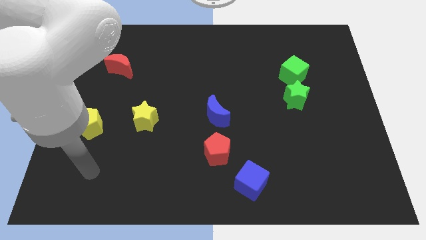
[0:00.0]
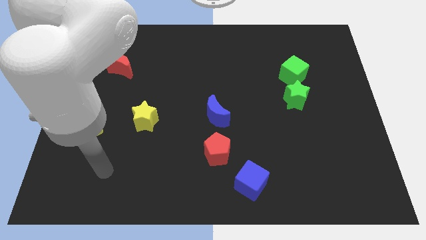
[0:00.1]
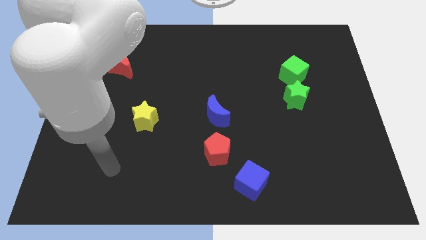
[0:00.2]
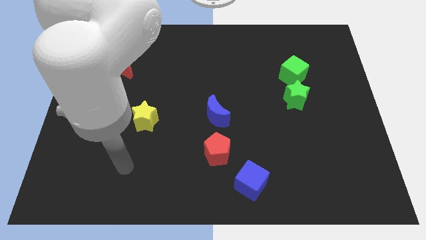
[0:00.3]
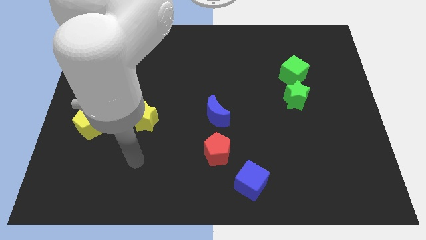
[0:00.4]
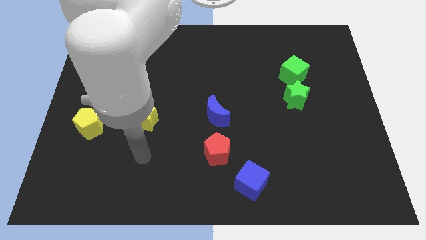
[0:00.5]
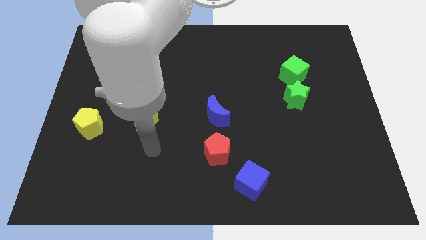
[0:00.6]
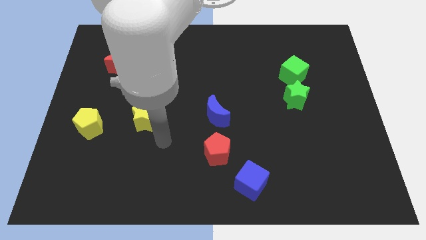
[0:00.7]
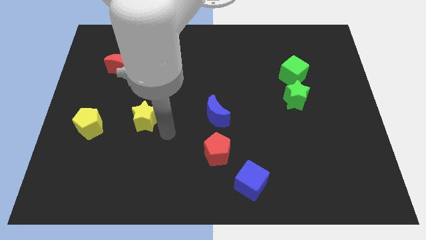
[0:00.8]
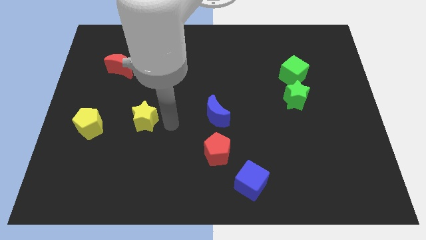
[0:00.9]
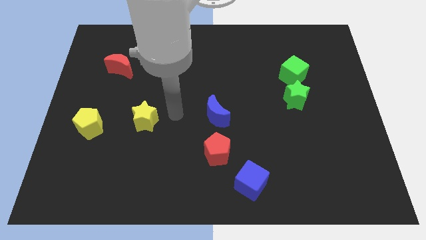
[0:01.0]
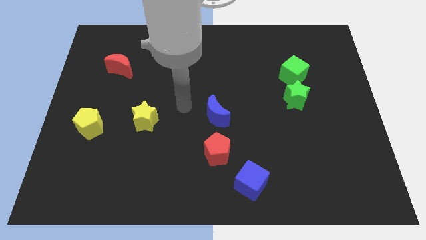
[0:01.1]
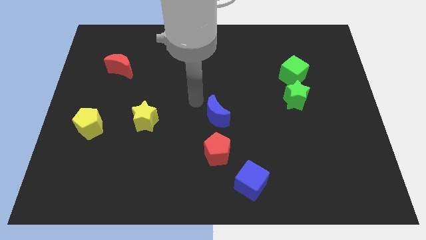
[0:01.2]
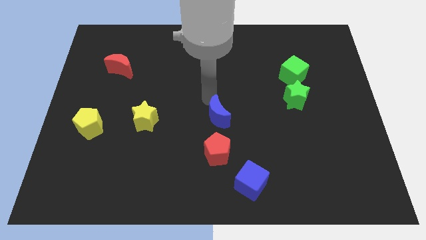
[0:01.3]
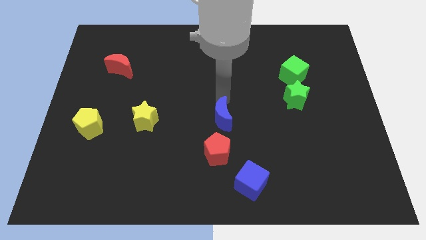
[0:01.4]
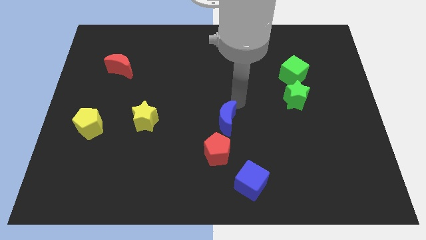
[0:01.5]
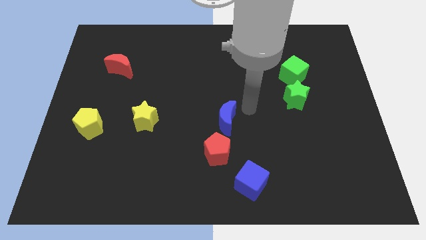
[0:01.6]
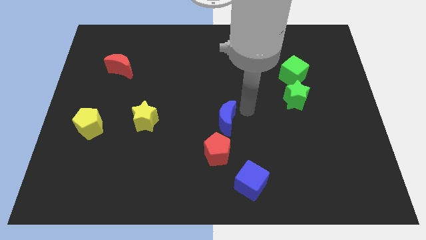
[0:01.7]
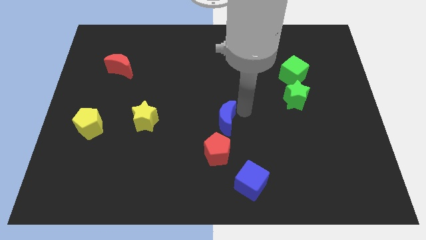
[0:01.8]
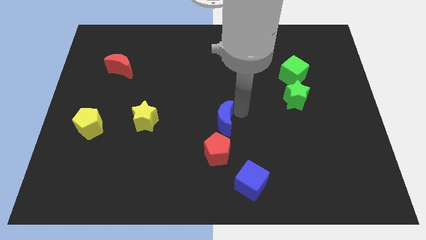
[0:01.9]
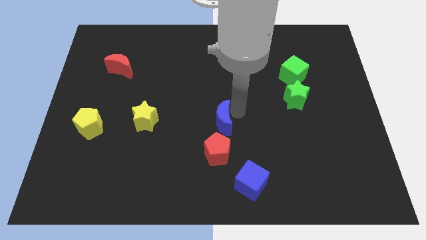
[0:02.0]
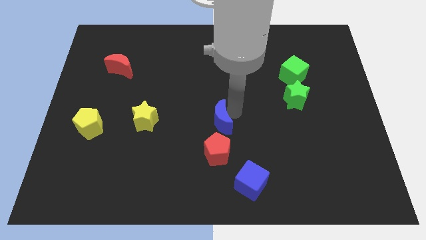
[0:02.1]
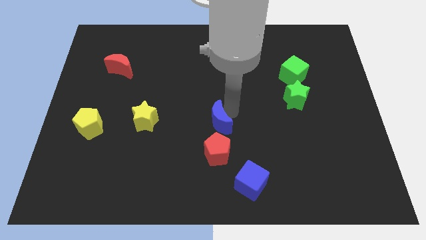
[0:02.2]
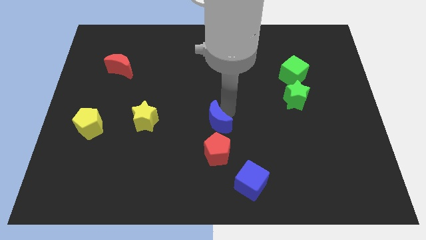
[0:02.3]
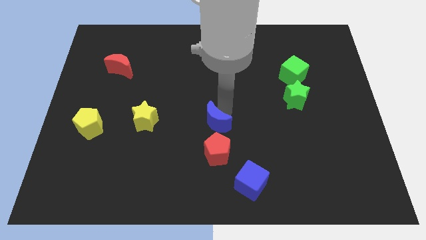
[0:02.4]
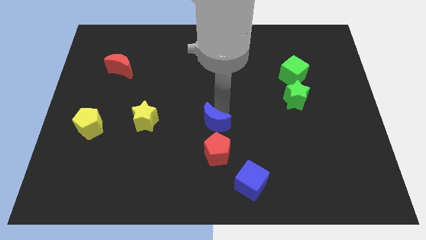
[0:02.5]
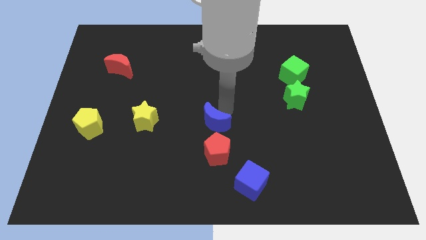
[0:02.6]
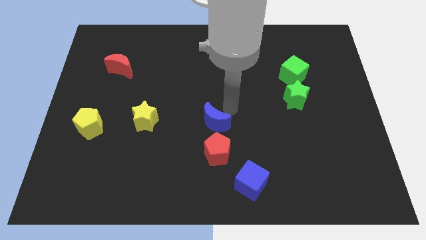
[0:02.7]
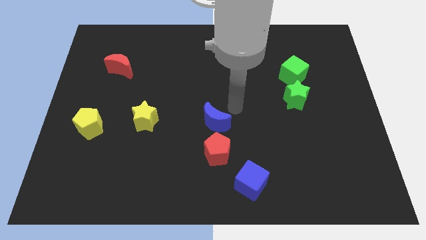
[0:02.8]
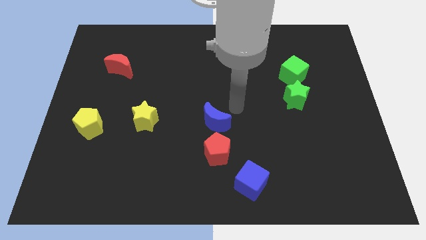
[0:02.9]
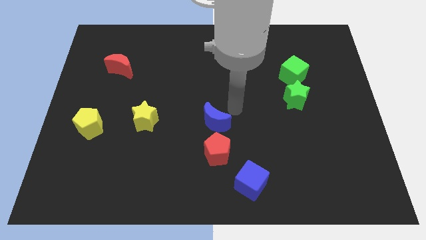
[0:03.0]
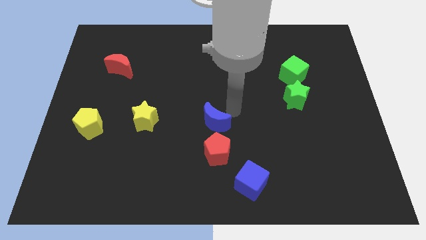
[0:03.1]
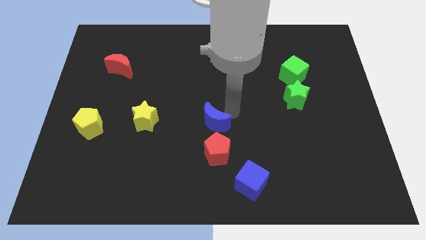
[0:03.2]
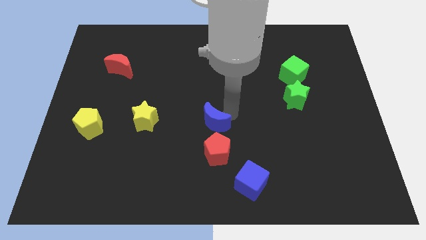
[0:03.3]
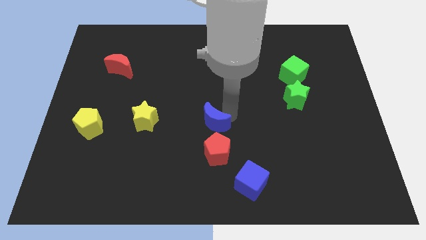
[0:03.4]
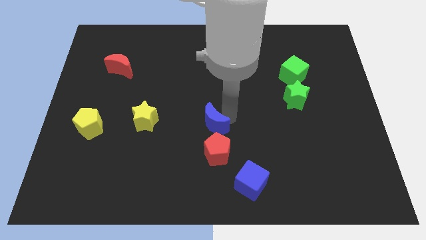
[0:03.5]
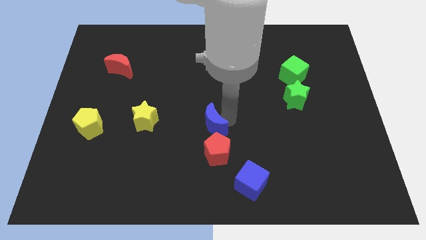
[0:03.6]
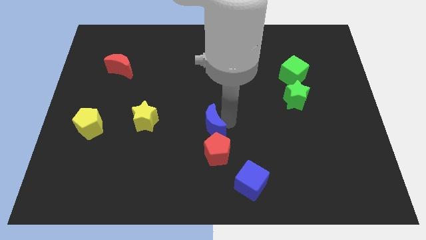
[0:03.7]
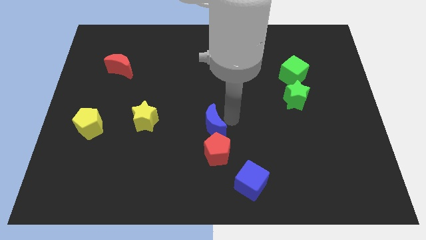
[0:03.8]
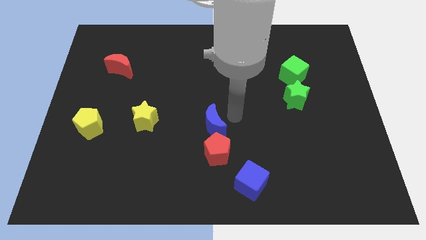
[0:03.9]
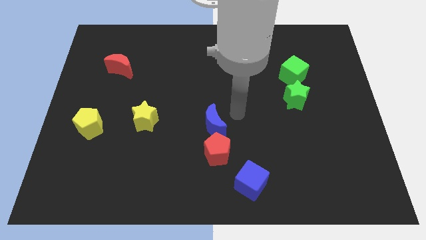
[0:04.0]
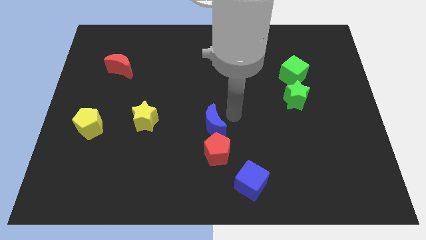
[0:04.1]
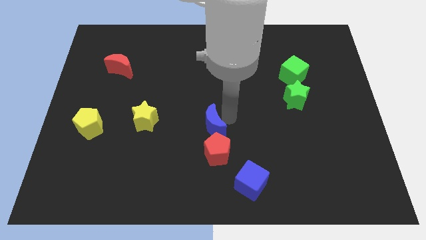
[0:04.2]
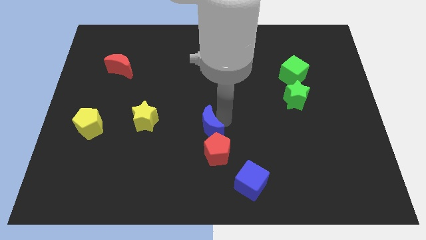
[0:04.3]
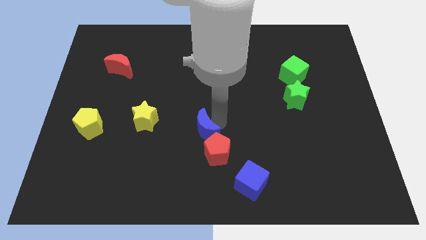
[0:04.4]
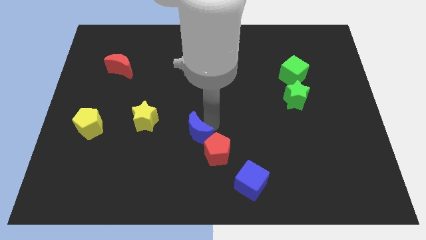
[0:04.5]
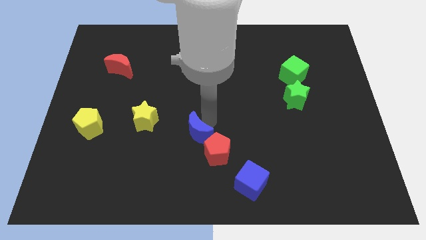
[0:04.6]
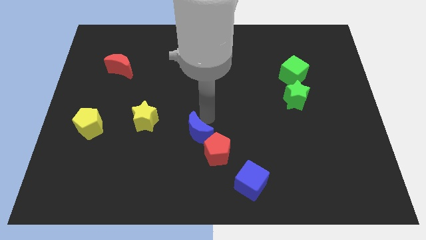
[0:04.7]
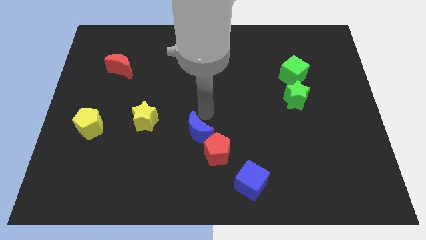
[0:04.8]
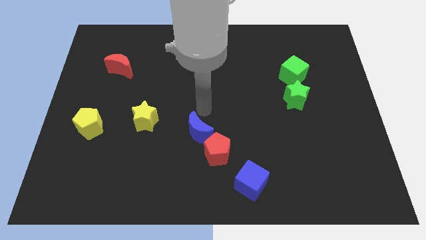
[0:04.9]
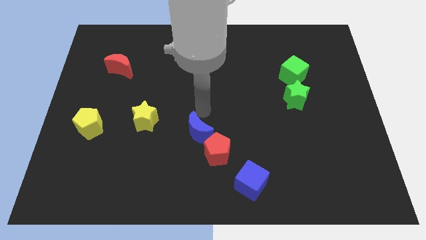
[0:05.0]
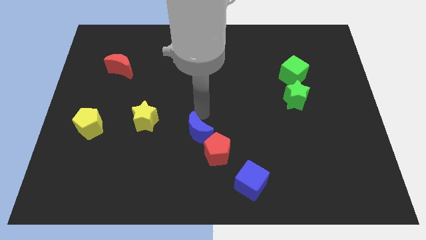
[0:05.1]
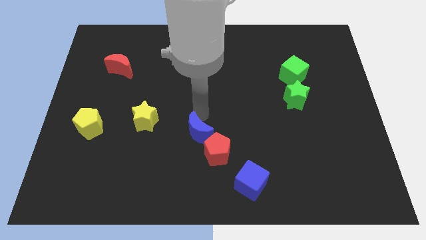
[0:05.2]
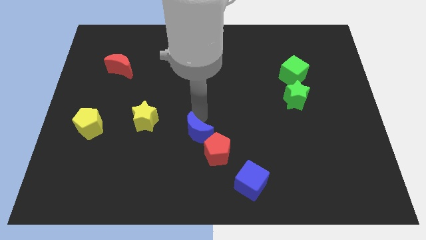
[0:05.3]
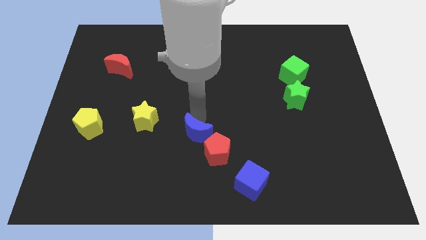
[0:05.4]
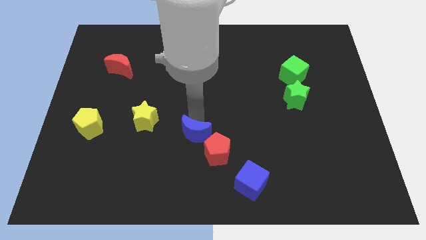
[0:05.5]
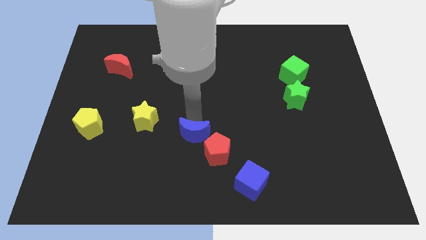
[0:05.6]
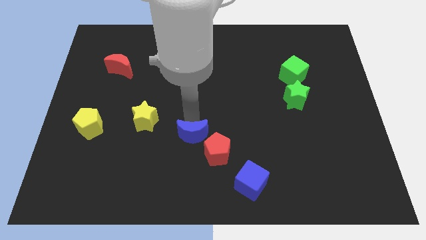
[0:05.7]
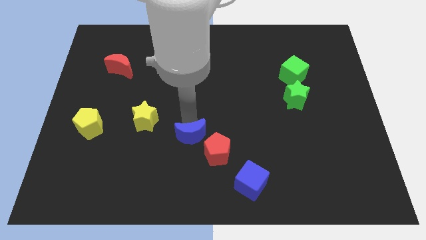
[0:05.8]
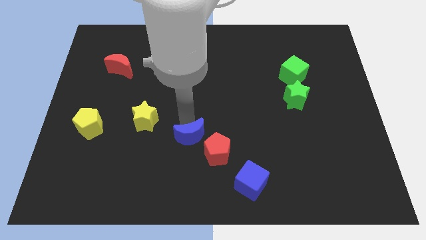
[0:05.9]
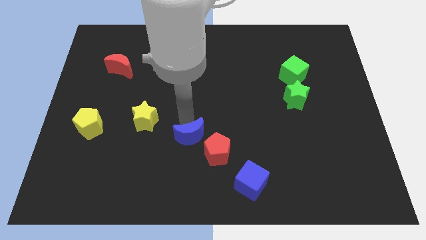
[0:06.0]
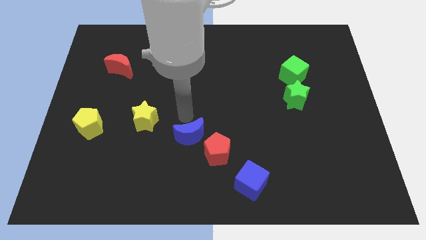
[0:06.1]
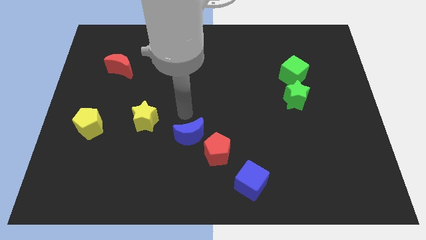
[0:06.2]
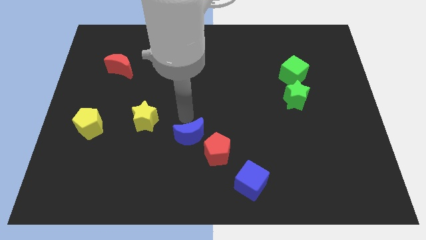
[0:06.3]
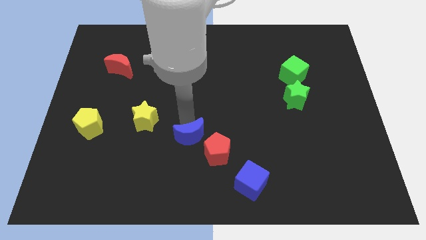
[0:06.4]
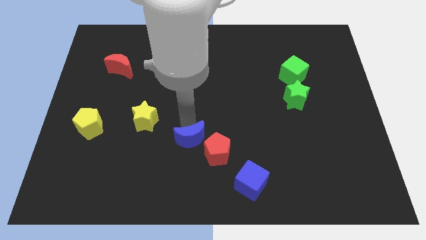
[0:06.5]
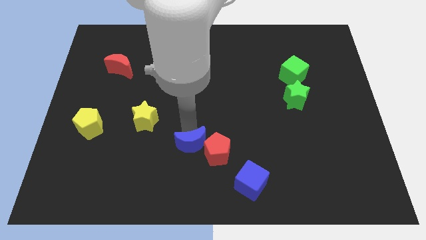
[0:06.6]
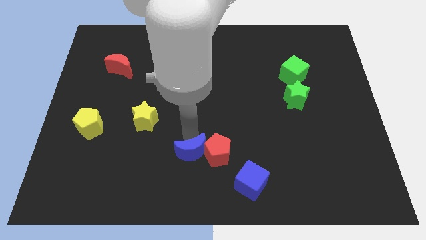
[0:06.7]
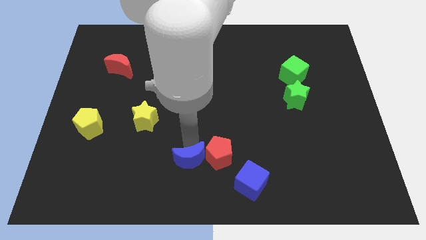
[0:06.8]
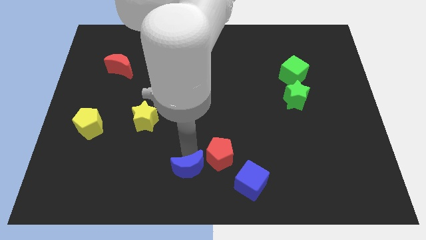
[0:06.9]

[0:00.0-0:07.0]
move the blue moon left of the blue cube
